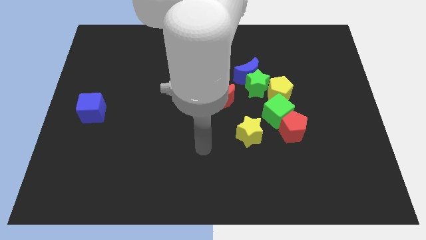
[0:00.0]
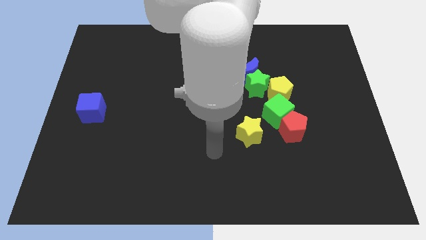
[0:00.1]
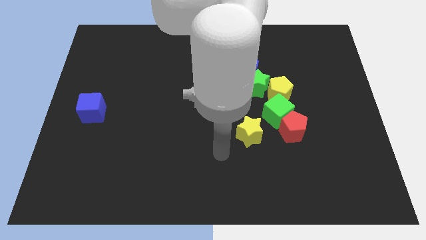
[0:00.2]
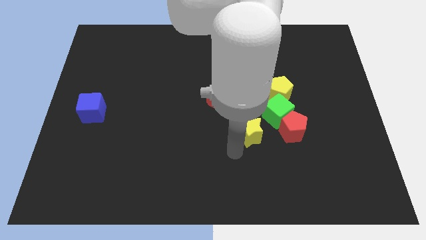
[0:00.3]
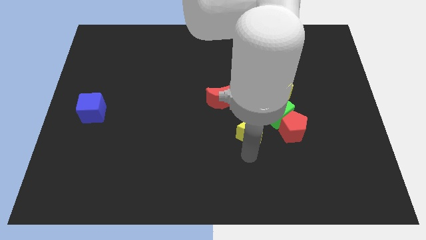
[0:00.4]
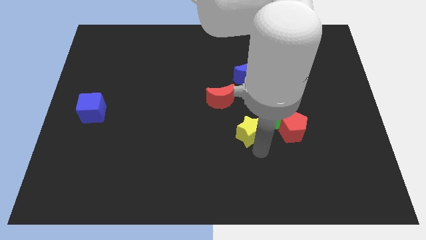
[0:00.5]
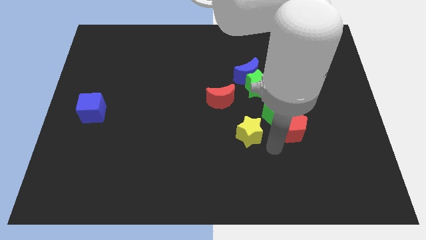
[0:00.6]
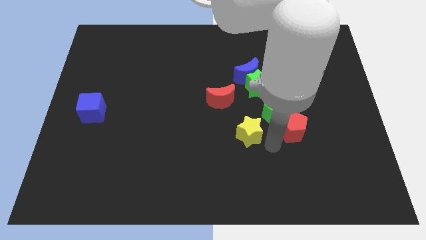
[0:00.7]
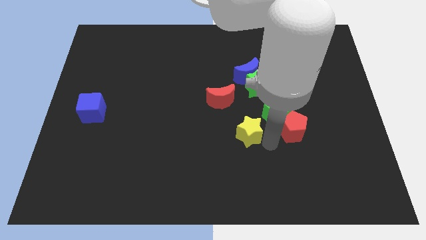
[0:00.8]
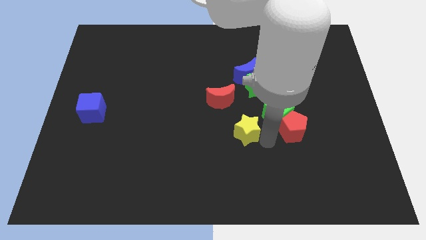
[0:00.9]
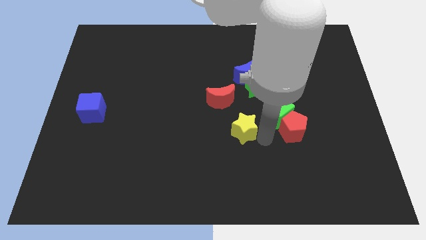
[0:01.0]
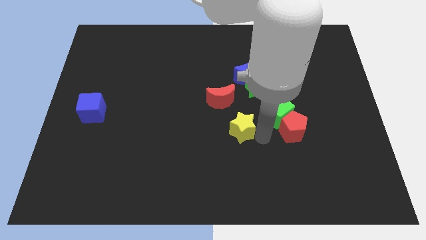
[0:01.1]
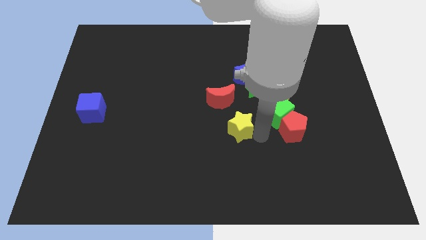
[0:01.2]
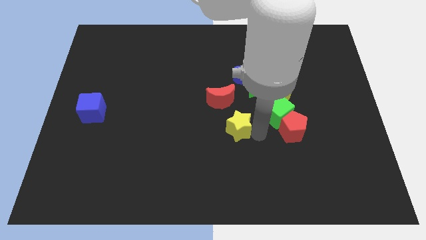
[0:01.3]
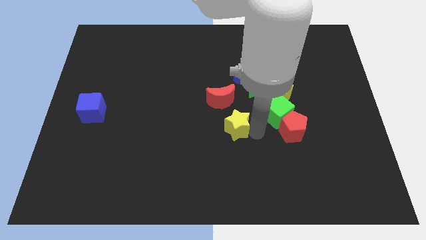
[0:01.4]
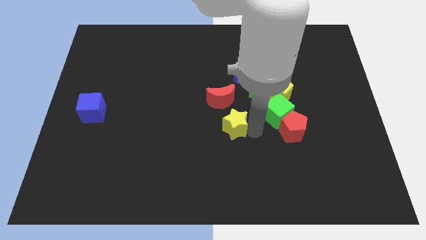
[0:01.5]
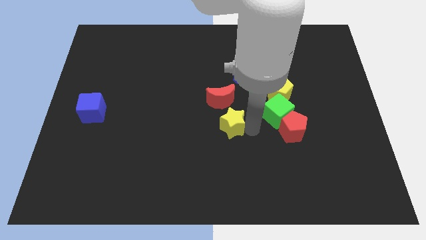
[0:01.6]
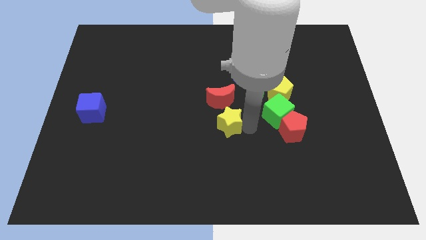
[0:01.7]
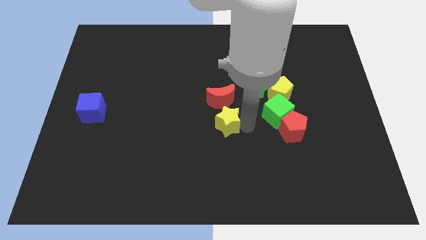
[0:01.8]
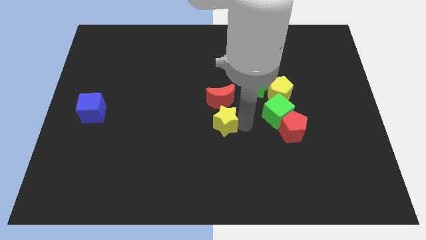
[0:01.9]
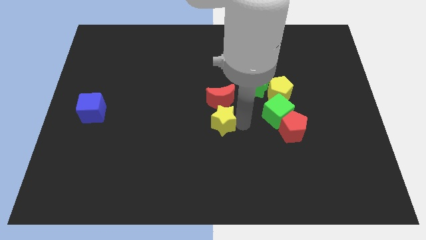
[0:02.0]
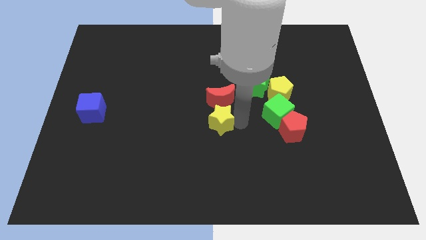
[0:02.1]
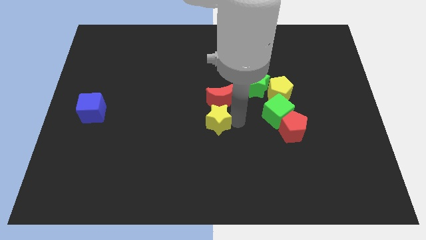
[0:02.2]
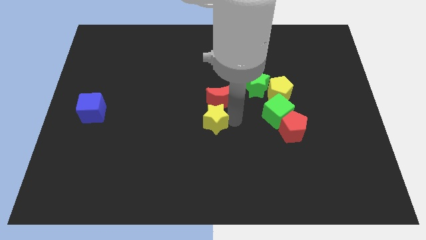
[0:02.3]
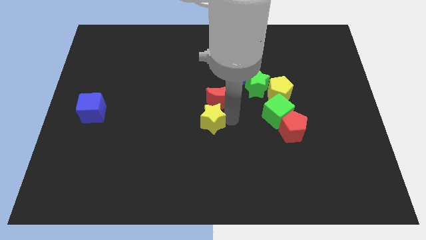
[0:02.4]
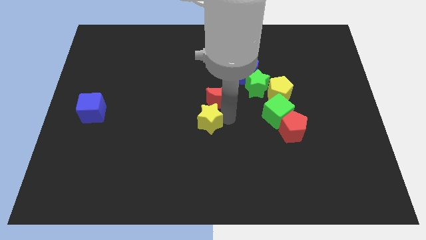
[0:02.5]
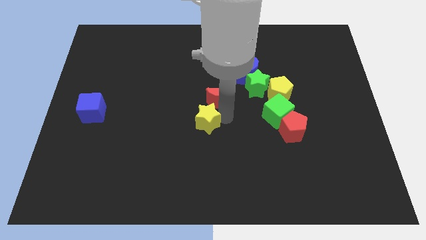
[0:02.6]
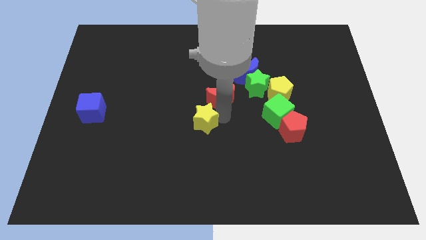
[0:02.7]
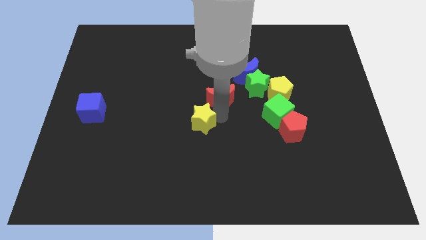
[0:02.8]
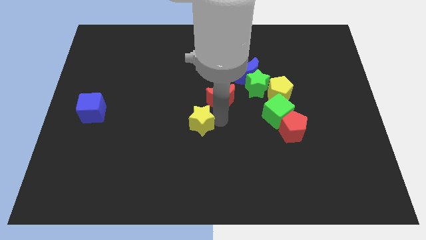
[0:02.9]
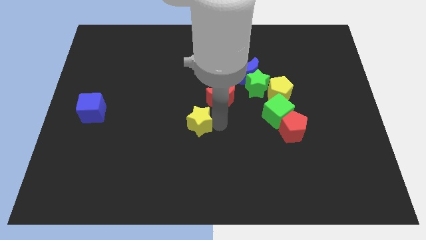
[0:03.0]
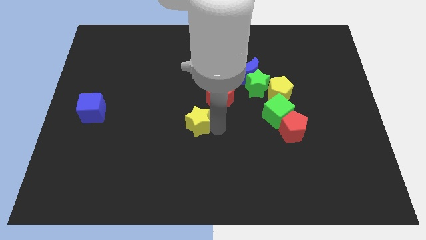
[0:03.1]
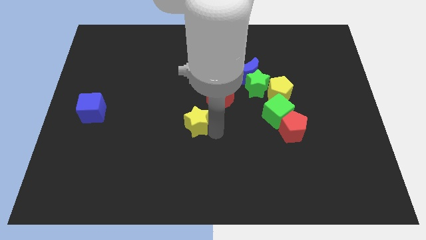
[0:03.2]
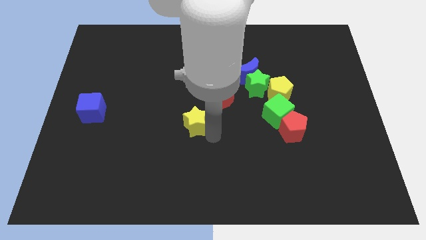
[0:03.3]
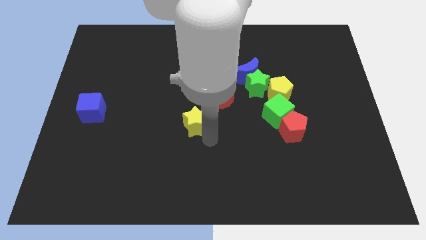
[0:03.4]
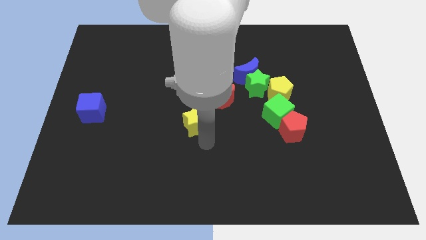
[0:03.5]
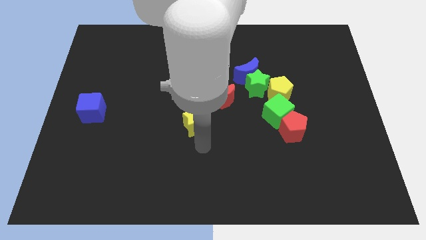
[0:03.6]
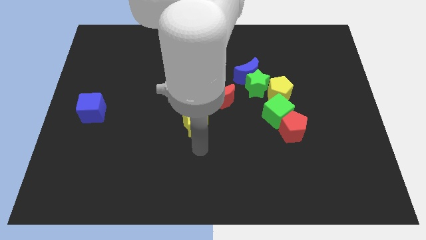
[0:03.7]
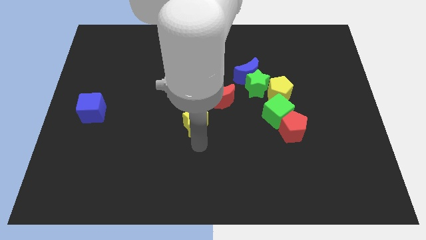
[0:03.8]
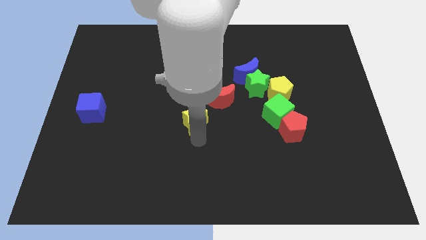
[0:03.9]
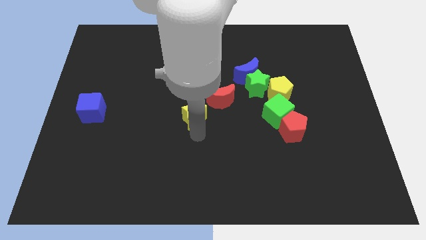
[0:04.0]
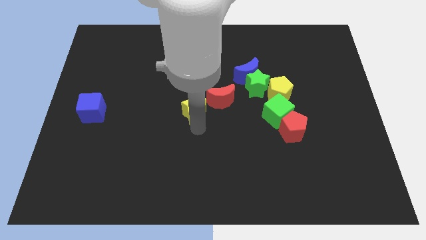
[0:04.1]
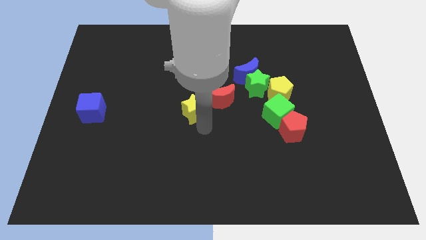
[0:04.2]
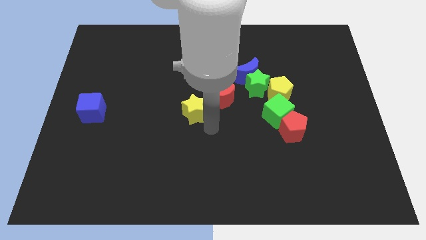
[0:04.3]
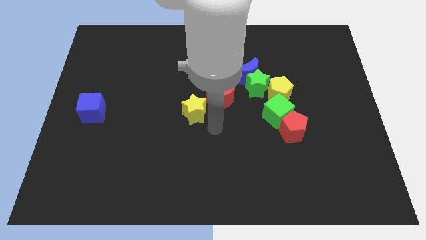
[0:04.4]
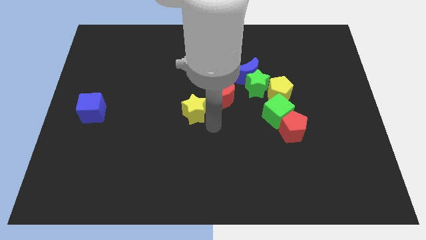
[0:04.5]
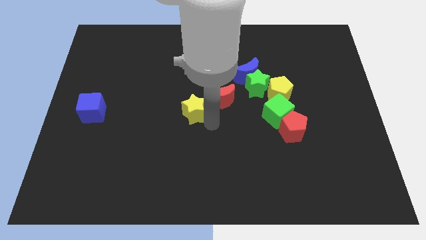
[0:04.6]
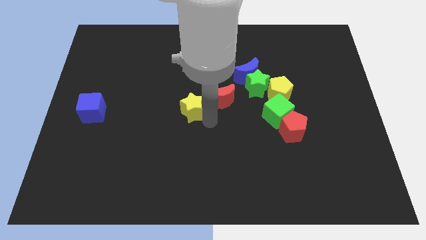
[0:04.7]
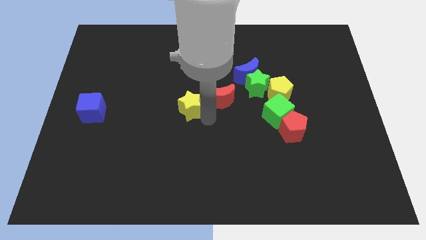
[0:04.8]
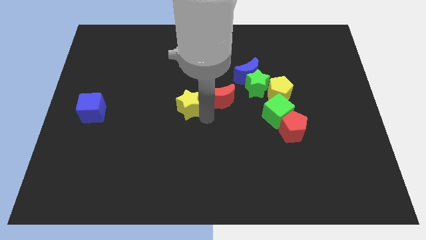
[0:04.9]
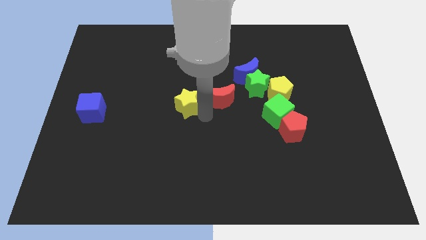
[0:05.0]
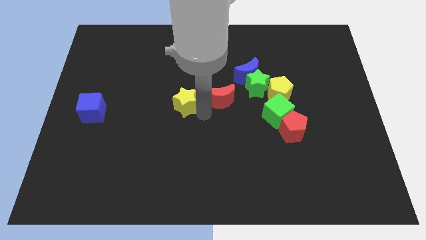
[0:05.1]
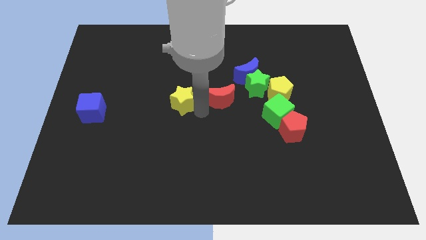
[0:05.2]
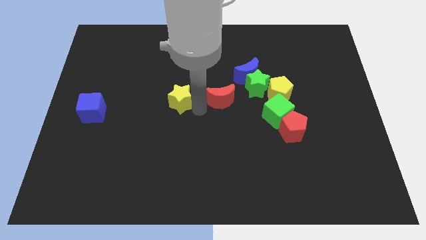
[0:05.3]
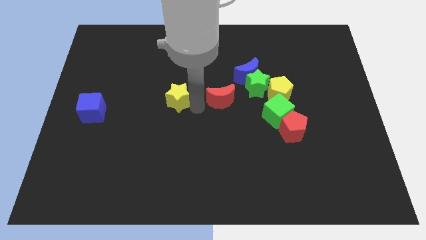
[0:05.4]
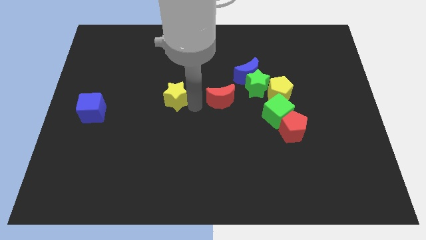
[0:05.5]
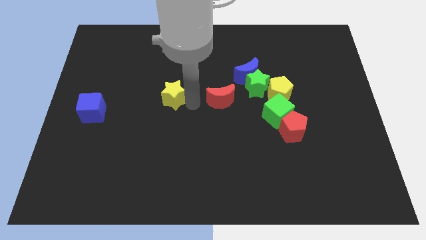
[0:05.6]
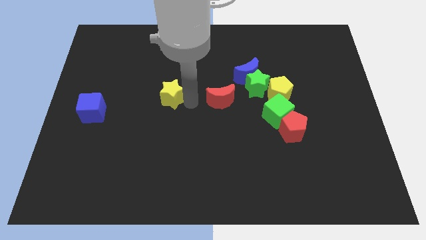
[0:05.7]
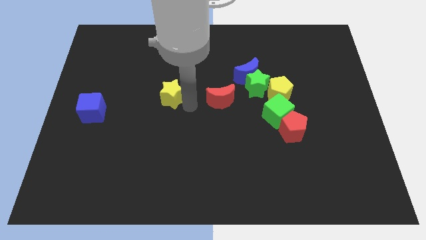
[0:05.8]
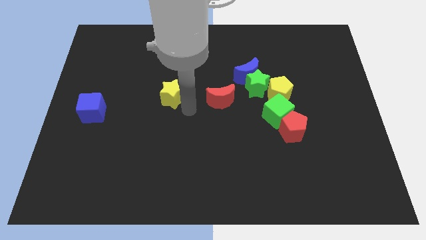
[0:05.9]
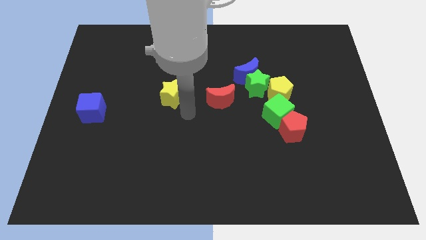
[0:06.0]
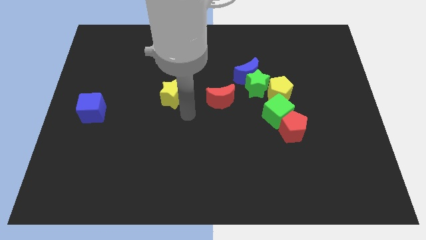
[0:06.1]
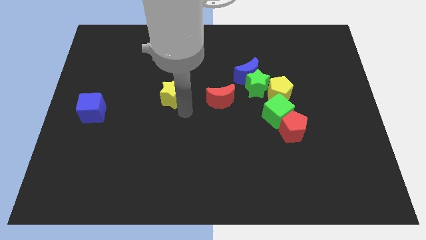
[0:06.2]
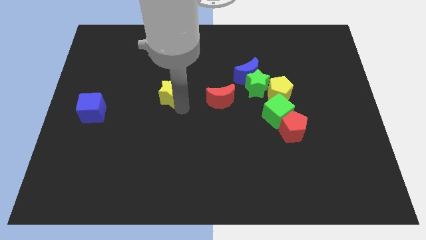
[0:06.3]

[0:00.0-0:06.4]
push the yellow star up and then to the left

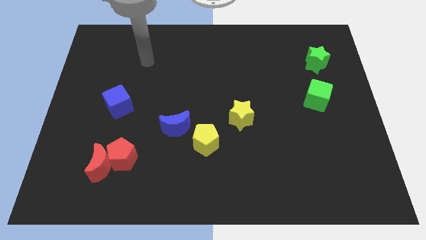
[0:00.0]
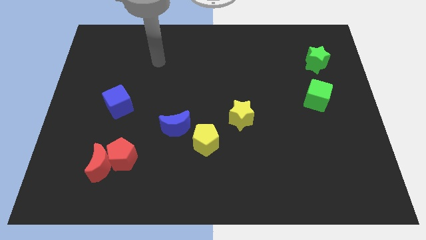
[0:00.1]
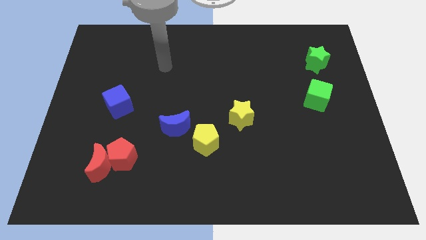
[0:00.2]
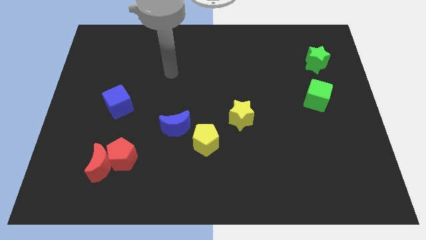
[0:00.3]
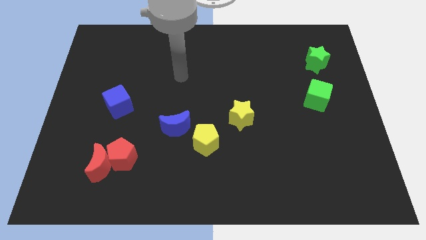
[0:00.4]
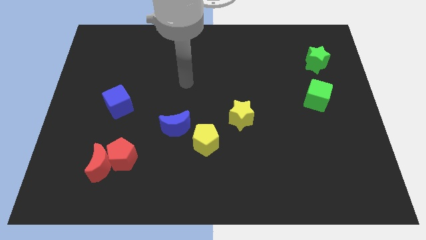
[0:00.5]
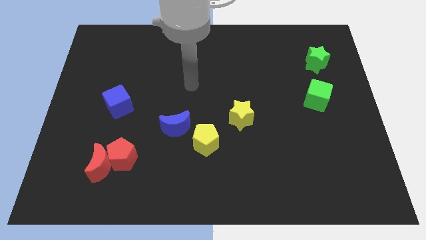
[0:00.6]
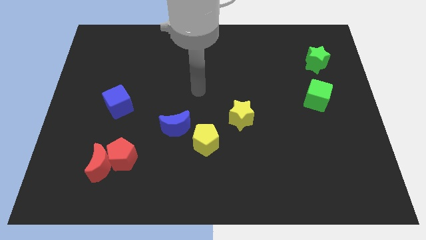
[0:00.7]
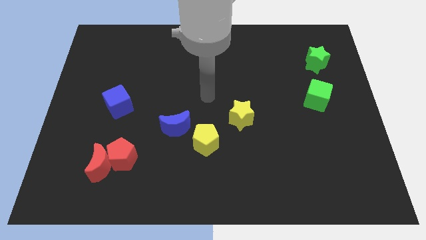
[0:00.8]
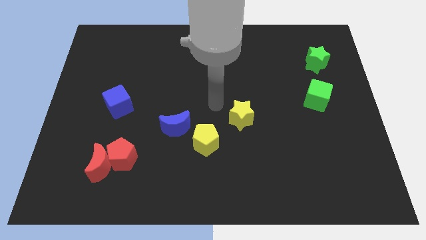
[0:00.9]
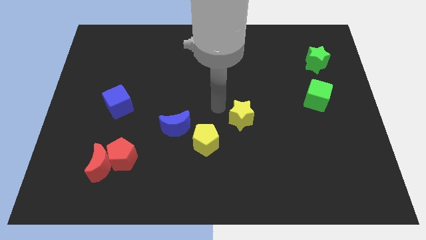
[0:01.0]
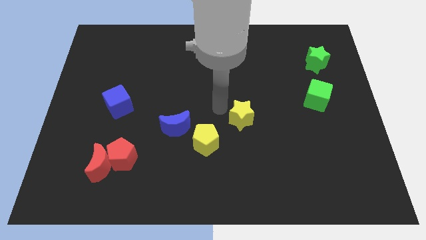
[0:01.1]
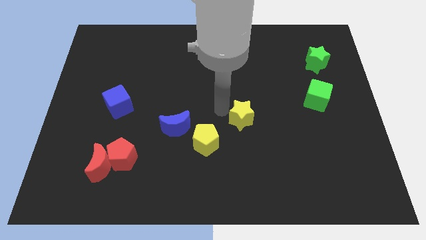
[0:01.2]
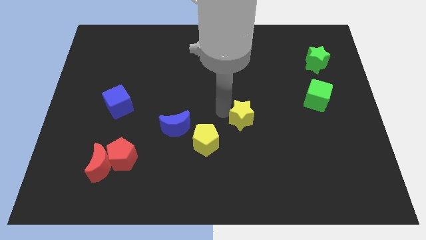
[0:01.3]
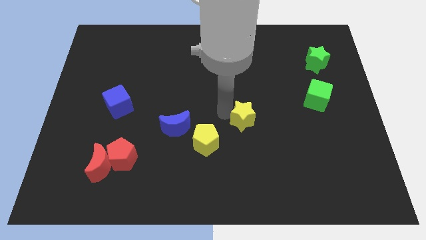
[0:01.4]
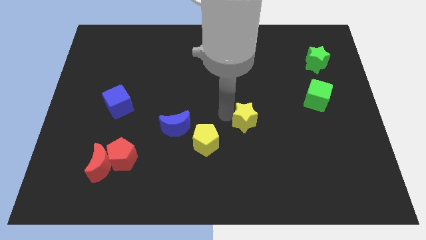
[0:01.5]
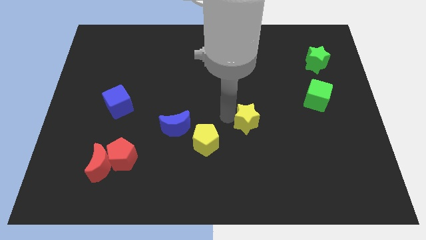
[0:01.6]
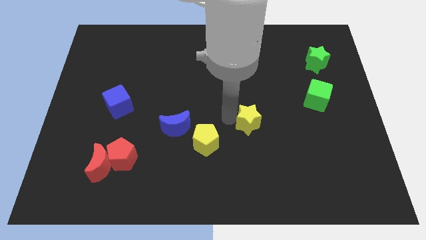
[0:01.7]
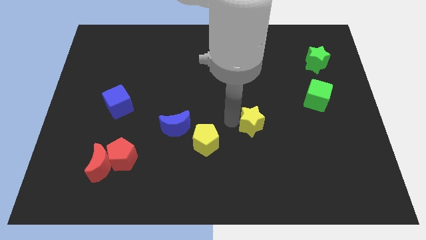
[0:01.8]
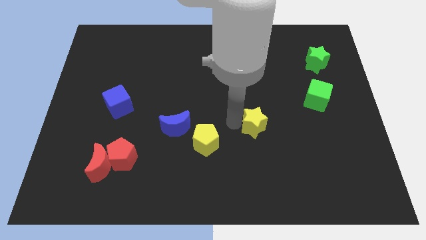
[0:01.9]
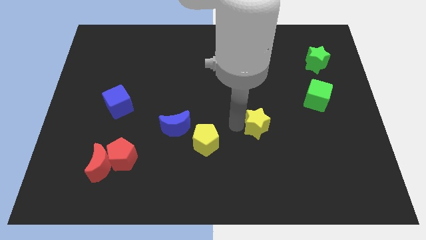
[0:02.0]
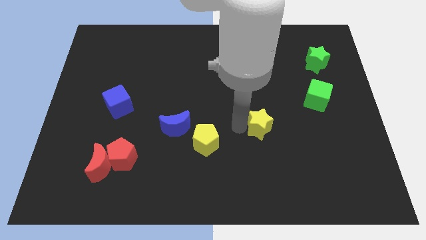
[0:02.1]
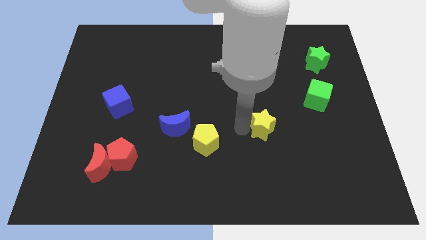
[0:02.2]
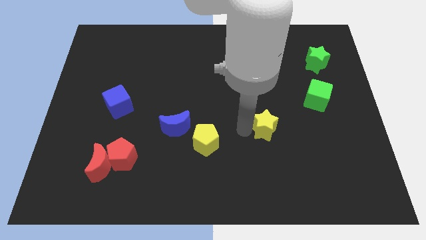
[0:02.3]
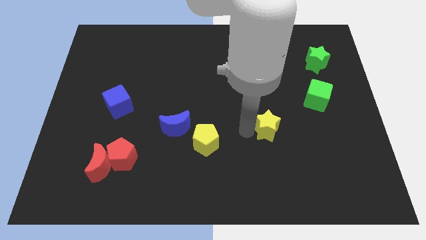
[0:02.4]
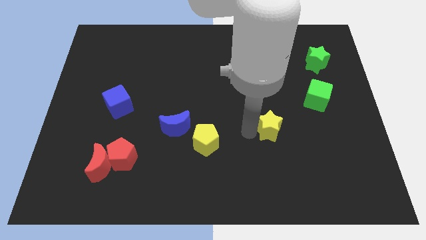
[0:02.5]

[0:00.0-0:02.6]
move the yellow star a little down and right diagonally
